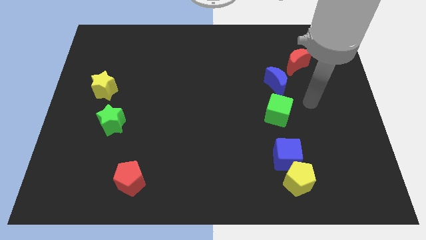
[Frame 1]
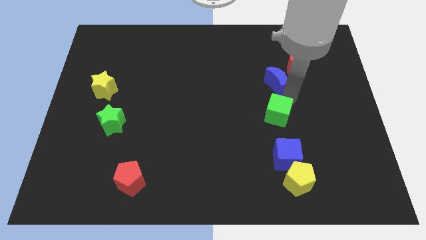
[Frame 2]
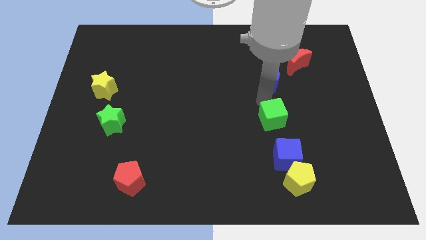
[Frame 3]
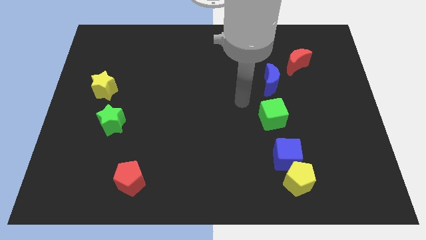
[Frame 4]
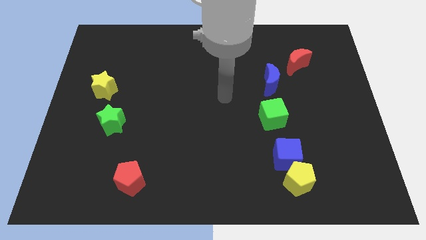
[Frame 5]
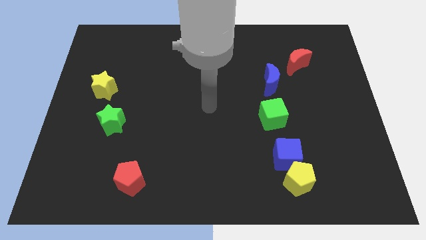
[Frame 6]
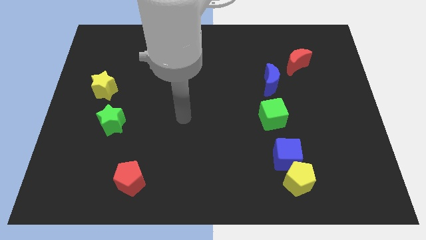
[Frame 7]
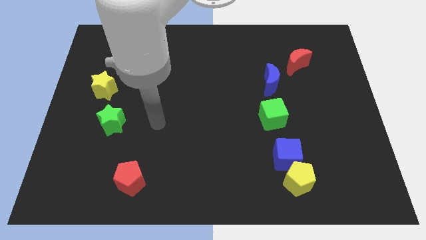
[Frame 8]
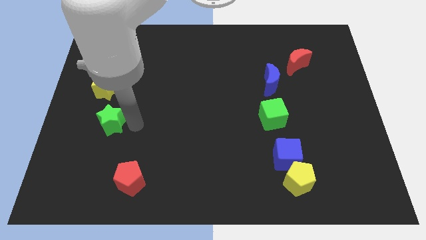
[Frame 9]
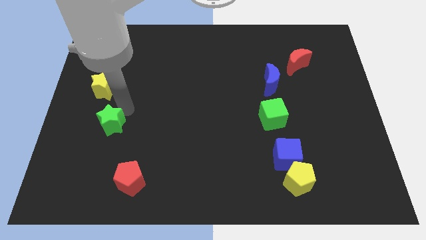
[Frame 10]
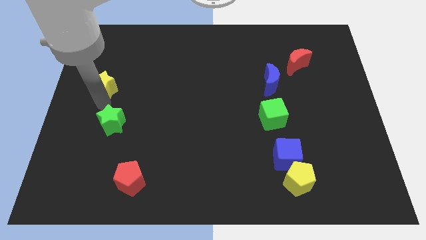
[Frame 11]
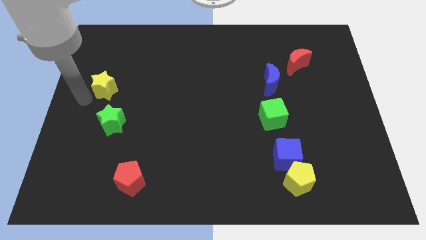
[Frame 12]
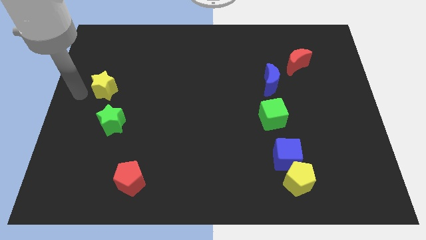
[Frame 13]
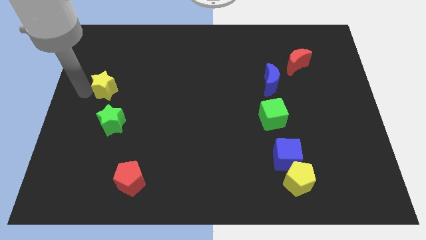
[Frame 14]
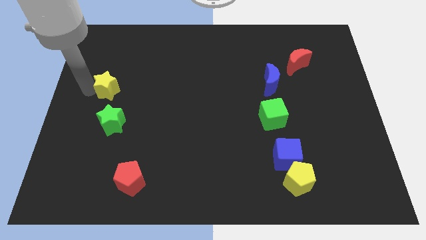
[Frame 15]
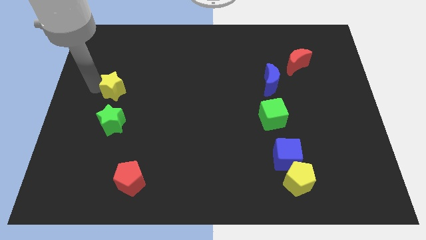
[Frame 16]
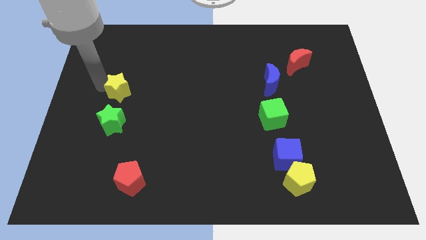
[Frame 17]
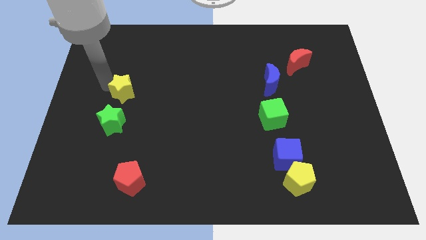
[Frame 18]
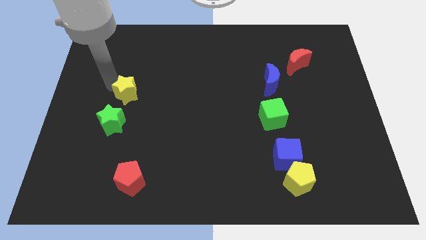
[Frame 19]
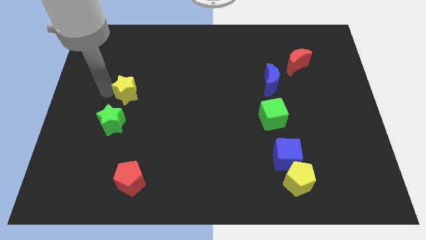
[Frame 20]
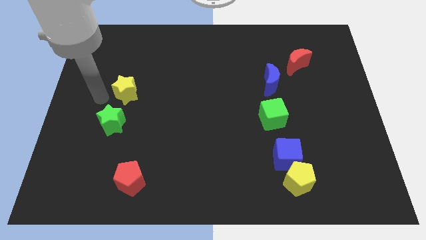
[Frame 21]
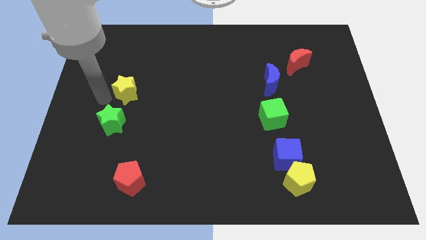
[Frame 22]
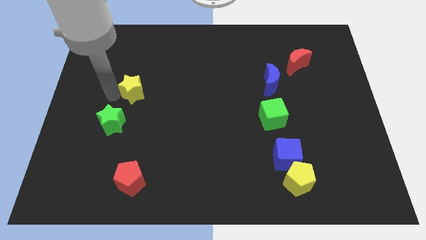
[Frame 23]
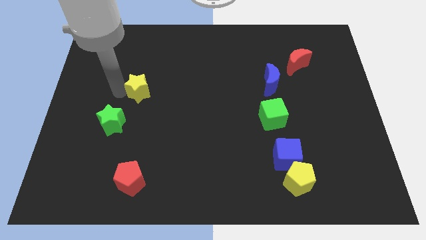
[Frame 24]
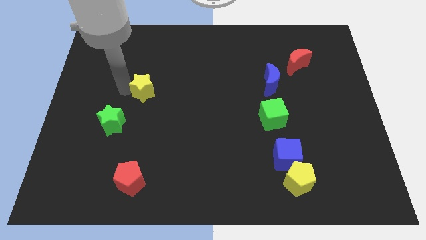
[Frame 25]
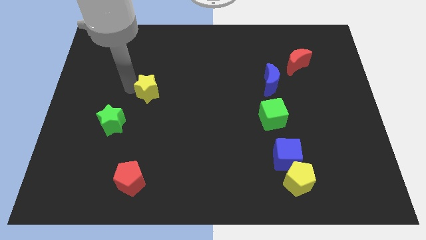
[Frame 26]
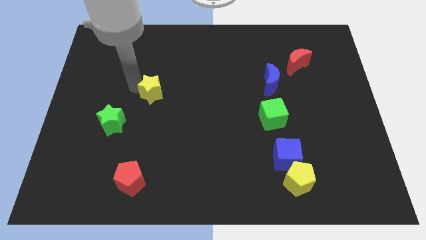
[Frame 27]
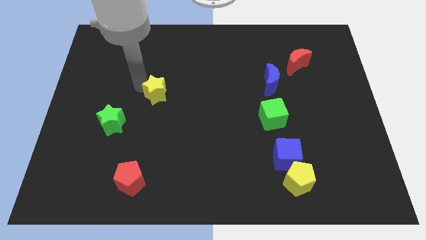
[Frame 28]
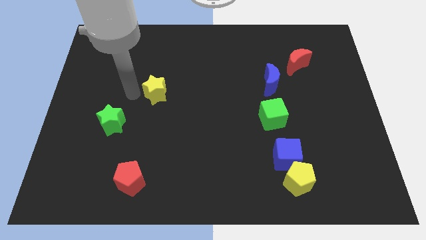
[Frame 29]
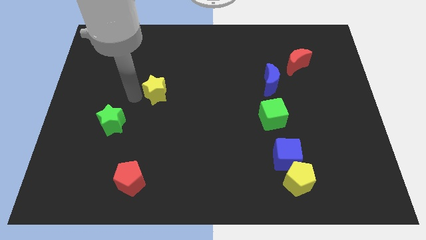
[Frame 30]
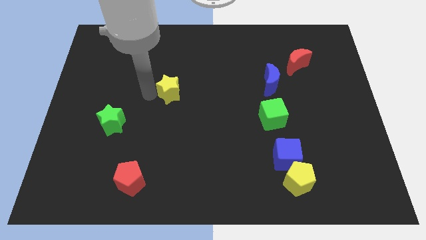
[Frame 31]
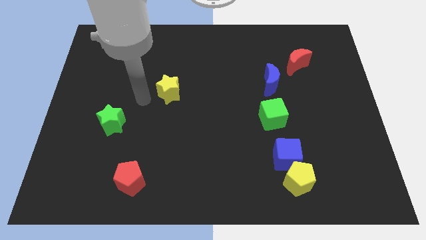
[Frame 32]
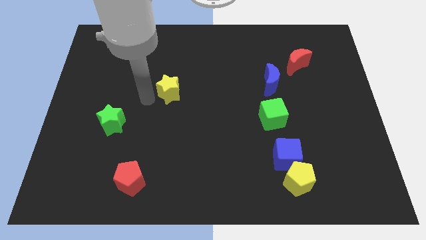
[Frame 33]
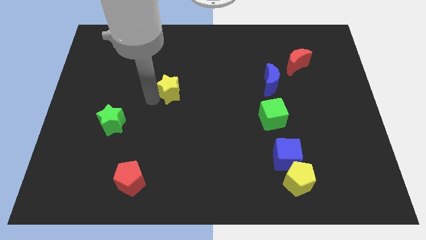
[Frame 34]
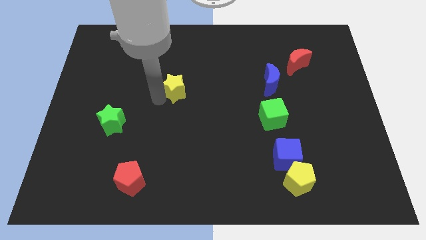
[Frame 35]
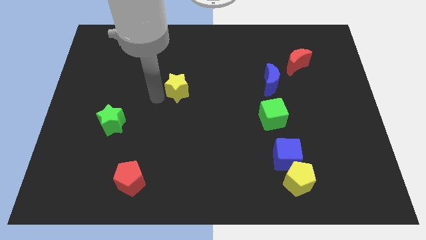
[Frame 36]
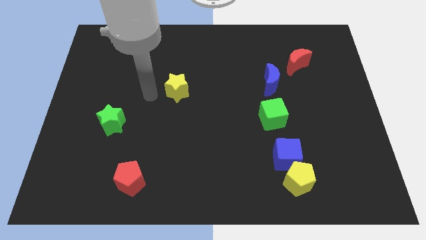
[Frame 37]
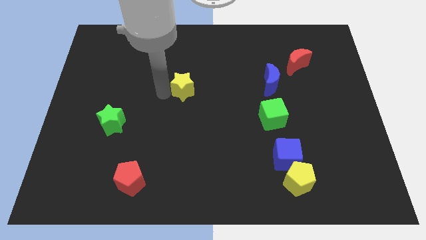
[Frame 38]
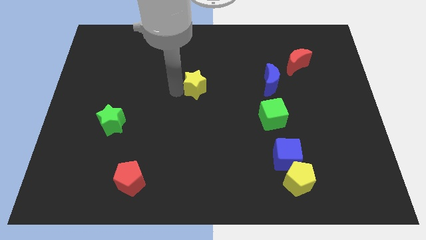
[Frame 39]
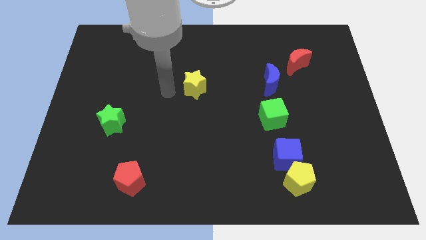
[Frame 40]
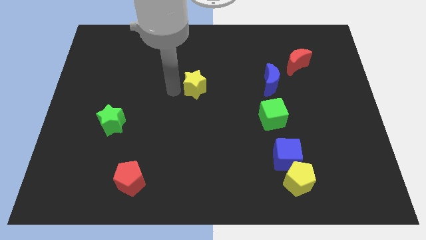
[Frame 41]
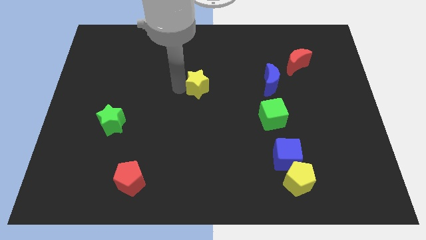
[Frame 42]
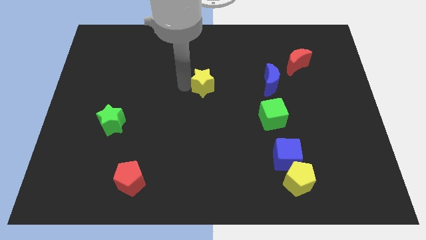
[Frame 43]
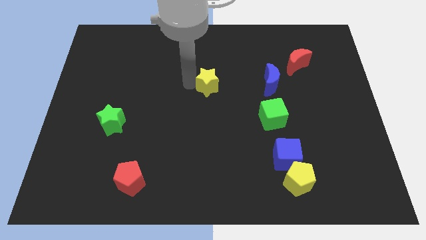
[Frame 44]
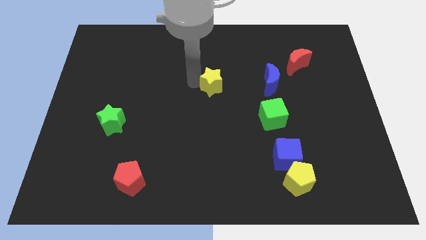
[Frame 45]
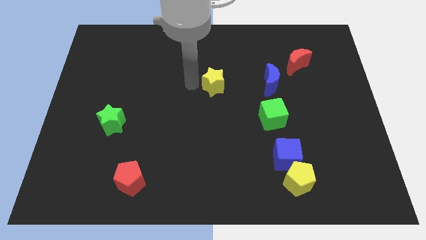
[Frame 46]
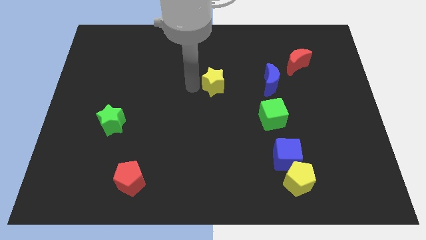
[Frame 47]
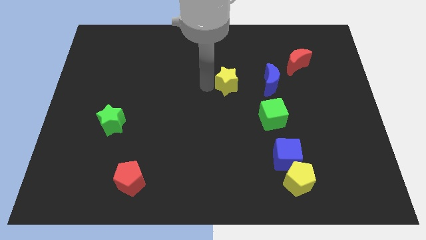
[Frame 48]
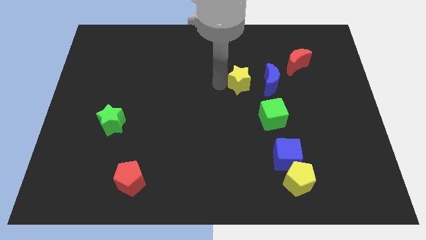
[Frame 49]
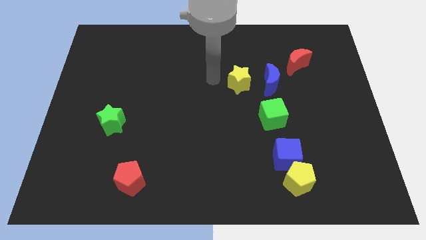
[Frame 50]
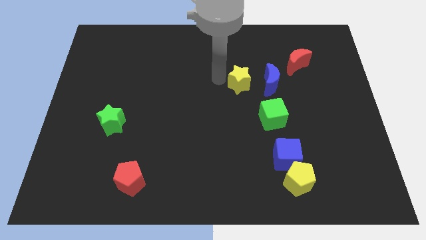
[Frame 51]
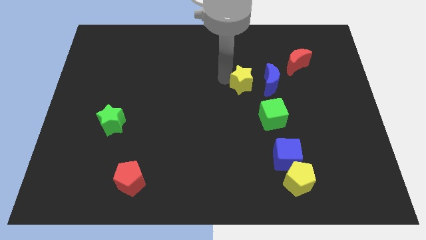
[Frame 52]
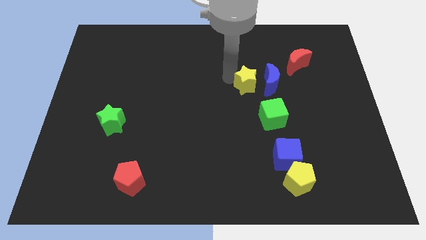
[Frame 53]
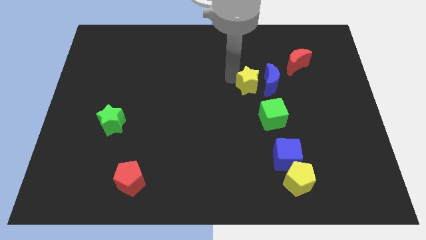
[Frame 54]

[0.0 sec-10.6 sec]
put the yellow star to the blue moon

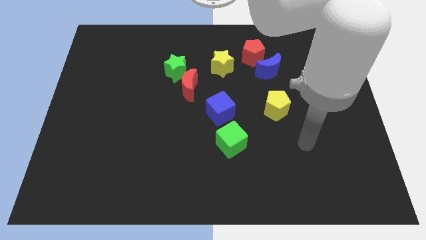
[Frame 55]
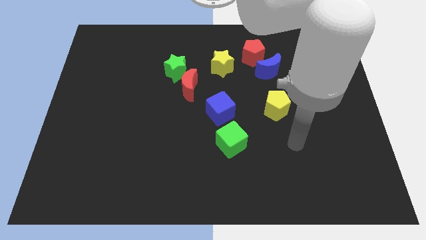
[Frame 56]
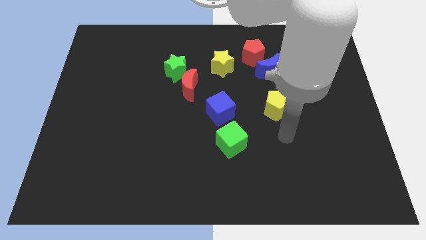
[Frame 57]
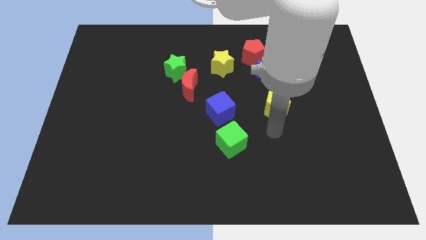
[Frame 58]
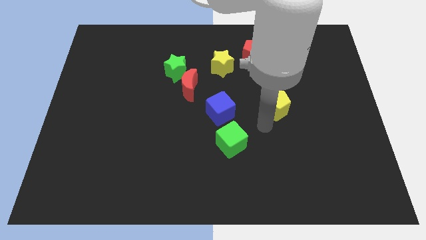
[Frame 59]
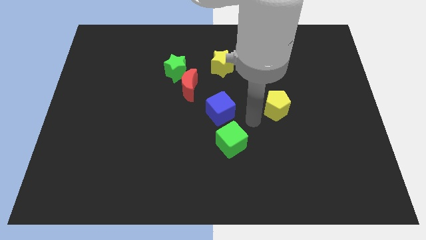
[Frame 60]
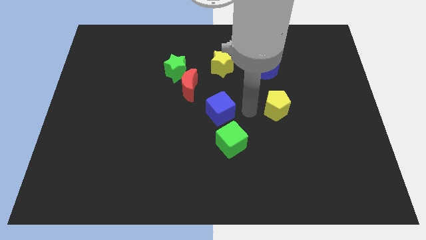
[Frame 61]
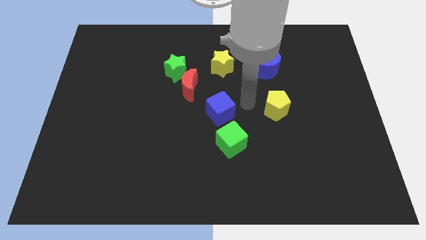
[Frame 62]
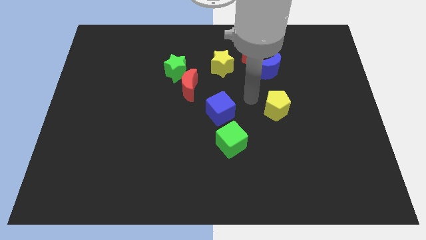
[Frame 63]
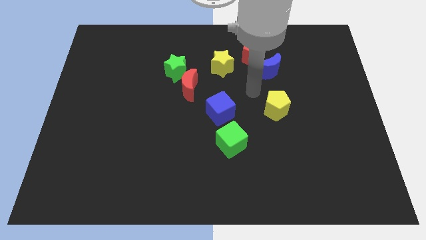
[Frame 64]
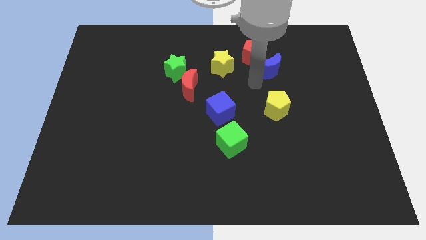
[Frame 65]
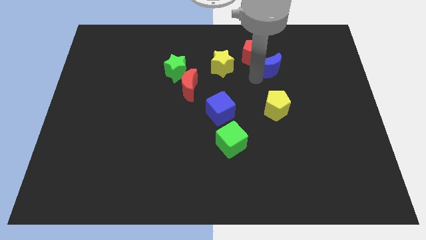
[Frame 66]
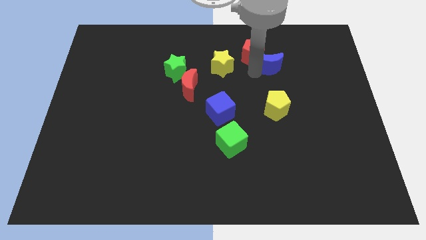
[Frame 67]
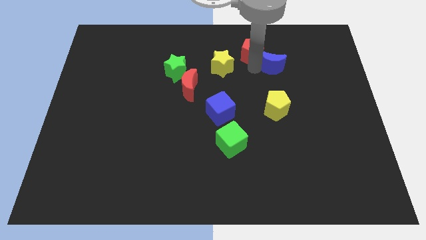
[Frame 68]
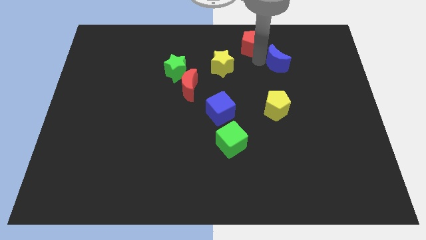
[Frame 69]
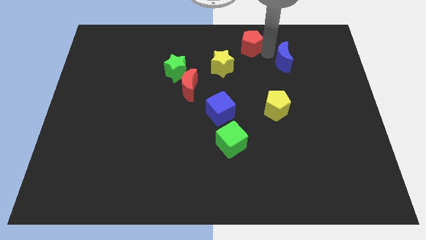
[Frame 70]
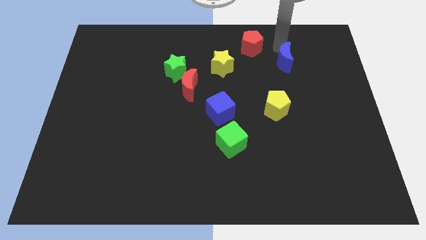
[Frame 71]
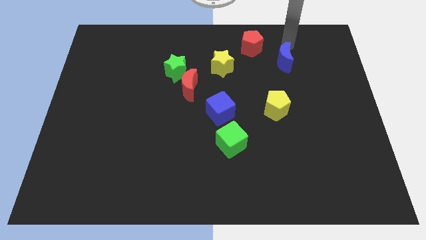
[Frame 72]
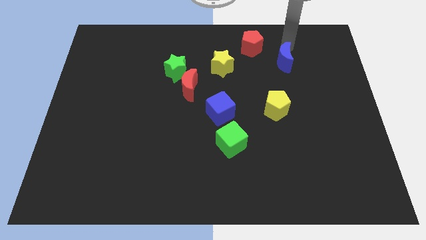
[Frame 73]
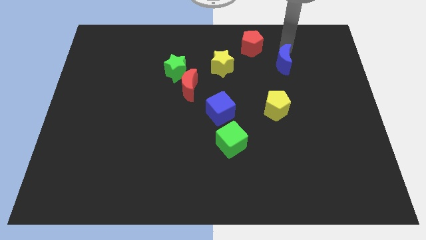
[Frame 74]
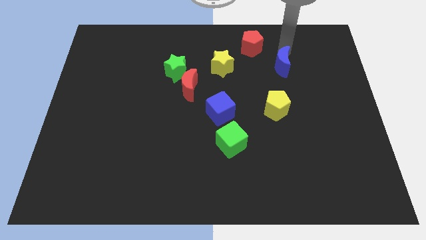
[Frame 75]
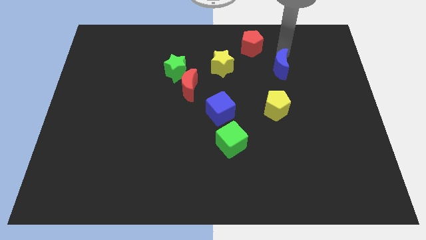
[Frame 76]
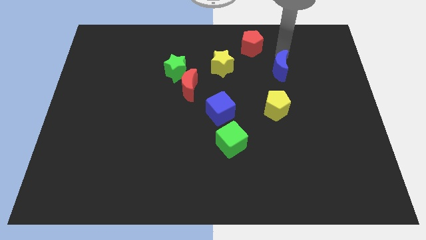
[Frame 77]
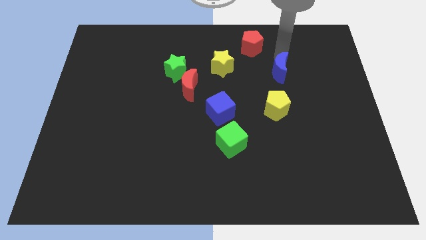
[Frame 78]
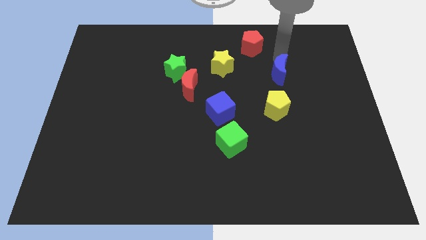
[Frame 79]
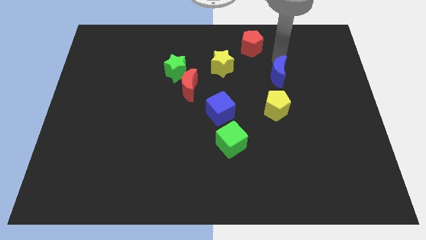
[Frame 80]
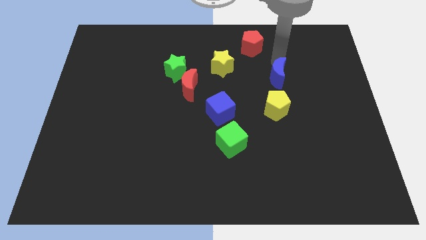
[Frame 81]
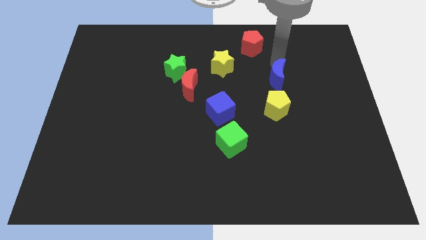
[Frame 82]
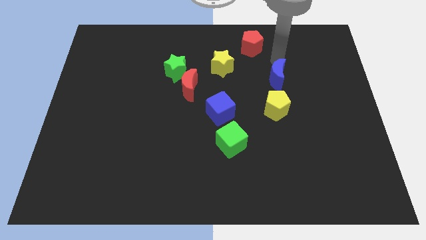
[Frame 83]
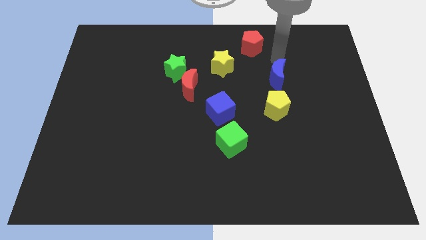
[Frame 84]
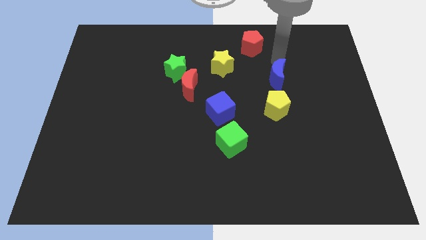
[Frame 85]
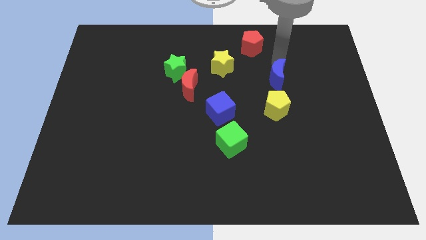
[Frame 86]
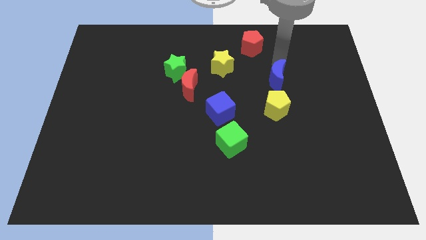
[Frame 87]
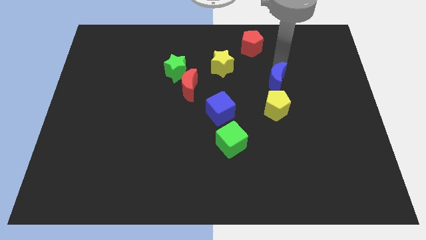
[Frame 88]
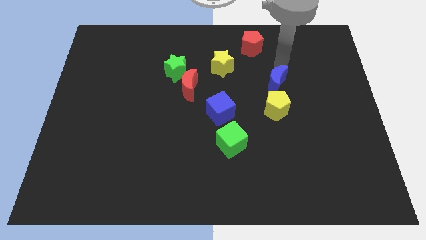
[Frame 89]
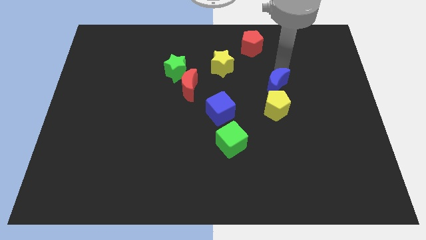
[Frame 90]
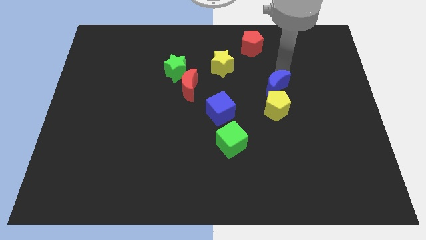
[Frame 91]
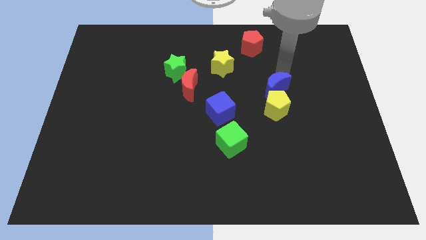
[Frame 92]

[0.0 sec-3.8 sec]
slide the blue moon close to the yellow pentagon
